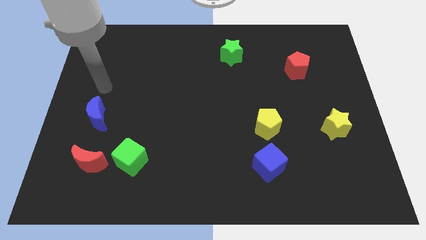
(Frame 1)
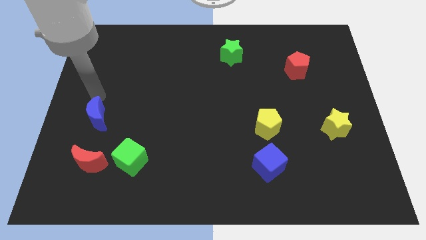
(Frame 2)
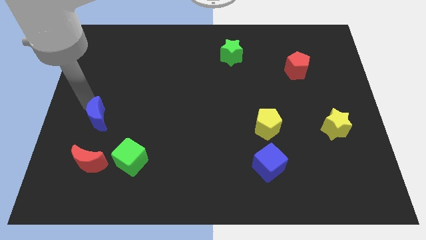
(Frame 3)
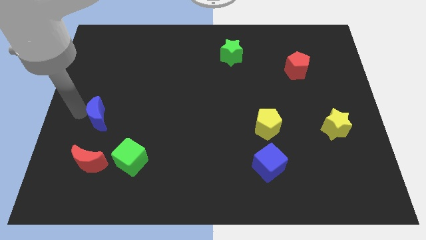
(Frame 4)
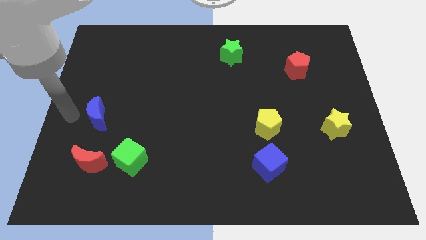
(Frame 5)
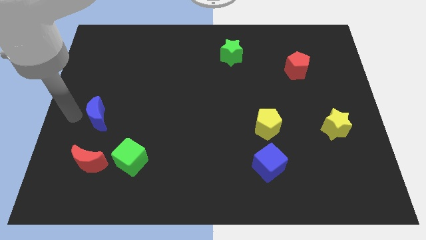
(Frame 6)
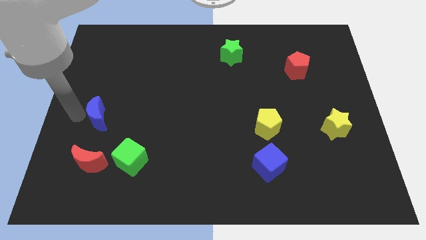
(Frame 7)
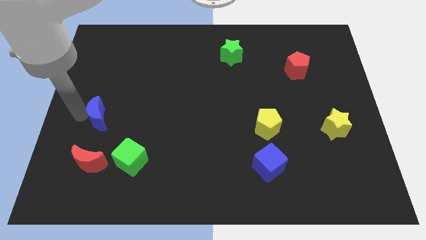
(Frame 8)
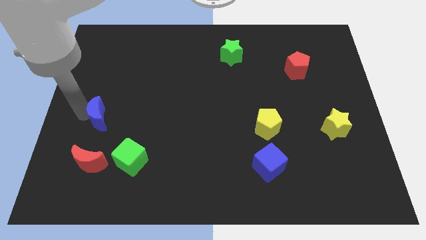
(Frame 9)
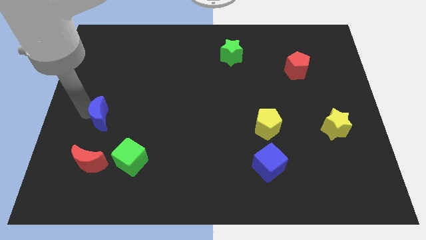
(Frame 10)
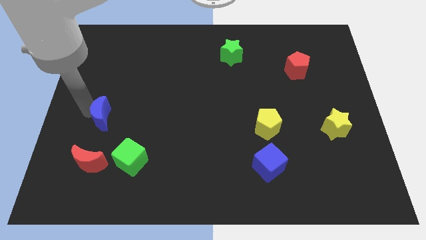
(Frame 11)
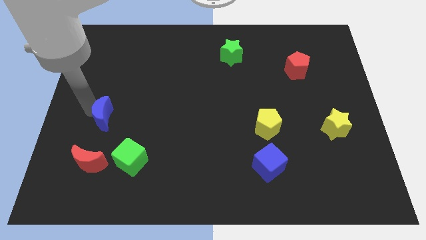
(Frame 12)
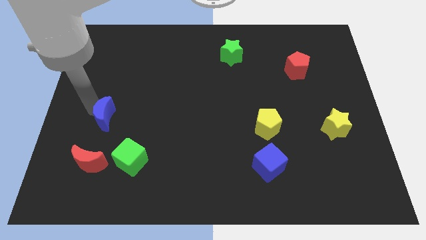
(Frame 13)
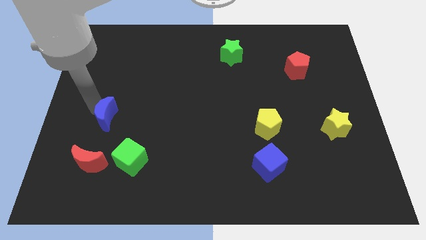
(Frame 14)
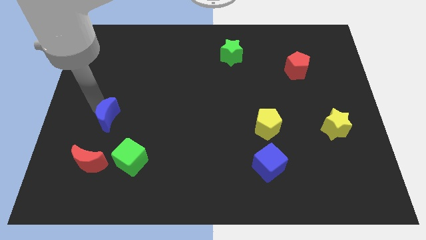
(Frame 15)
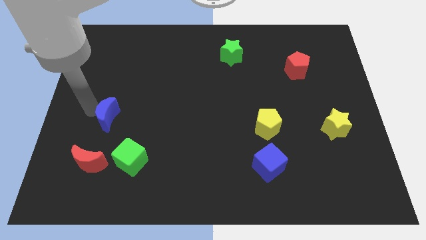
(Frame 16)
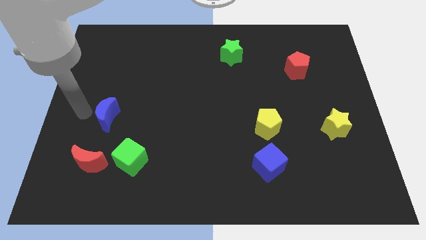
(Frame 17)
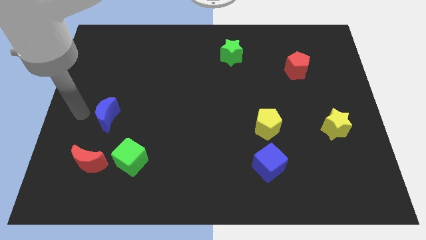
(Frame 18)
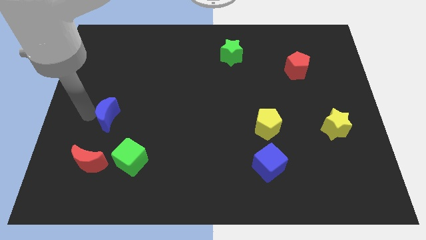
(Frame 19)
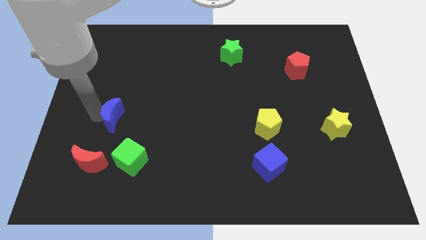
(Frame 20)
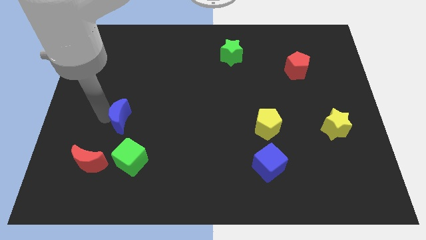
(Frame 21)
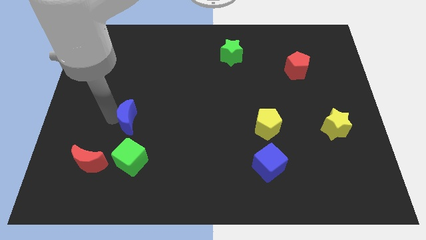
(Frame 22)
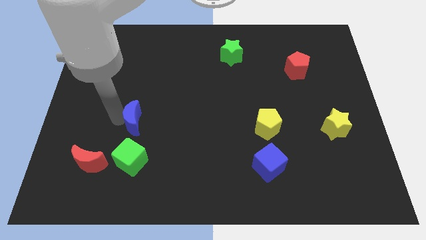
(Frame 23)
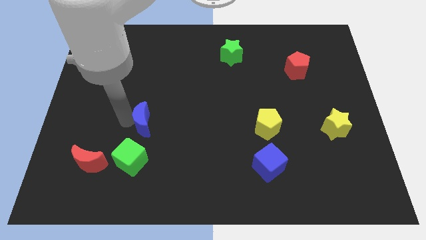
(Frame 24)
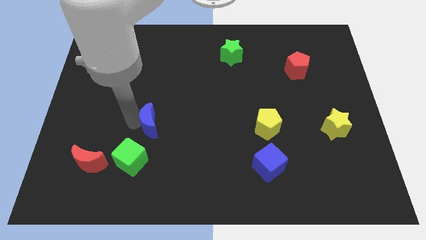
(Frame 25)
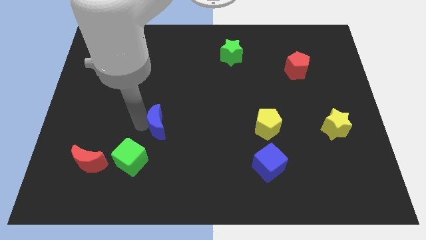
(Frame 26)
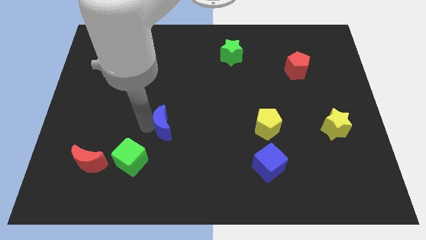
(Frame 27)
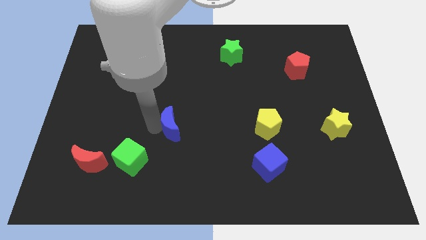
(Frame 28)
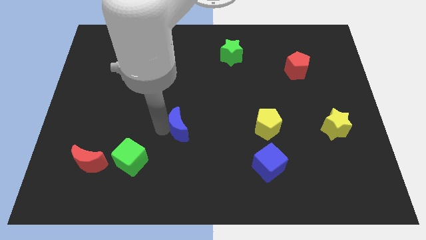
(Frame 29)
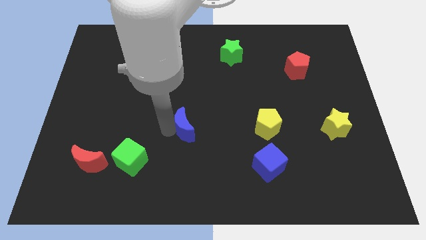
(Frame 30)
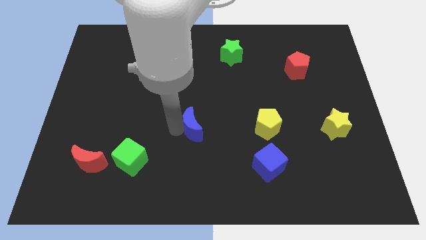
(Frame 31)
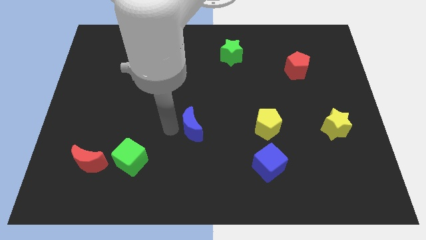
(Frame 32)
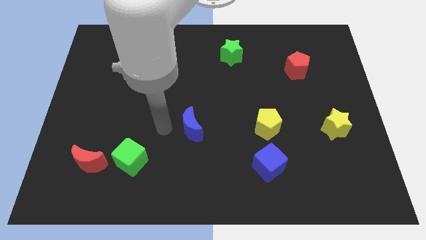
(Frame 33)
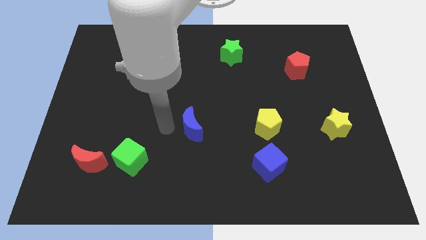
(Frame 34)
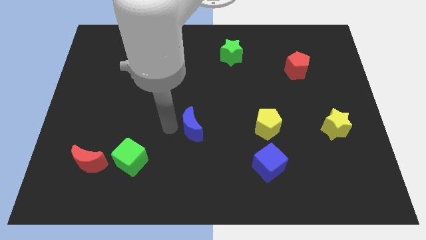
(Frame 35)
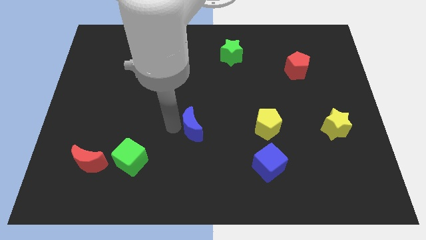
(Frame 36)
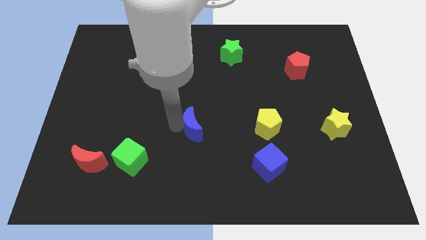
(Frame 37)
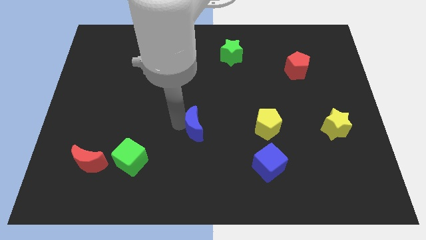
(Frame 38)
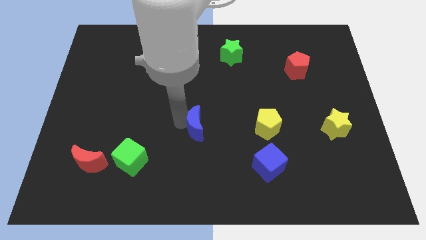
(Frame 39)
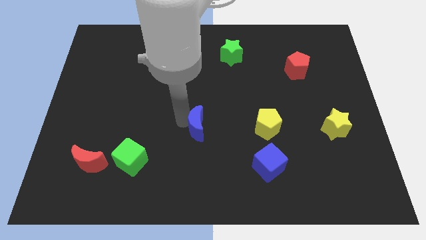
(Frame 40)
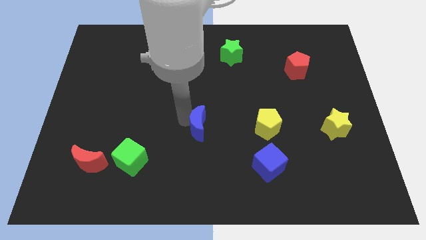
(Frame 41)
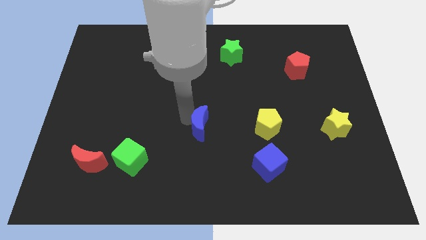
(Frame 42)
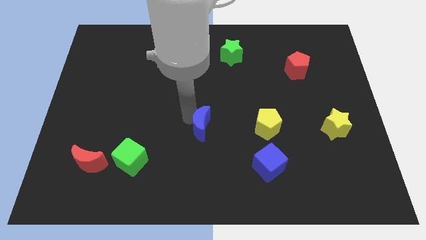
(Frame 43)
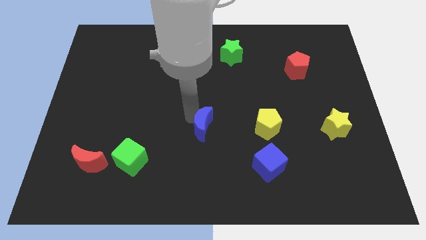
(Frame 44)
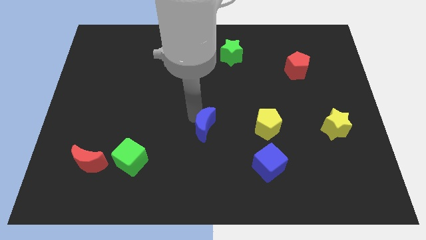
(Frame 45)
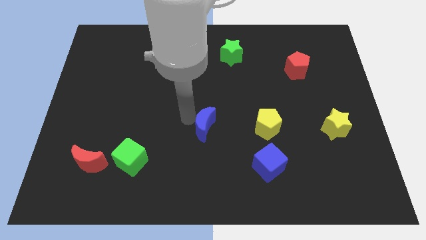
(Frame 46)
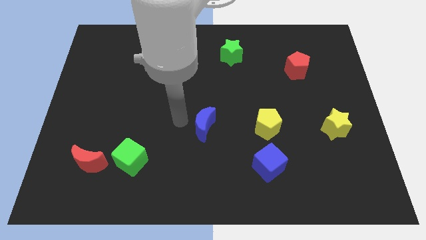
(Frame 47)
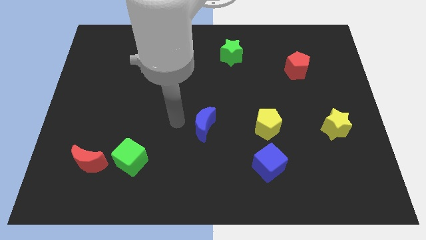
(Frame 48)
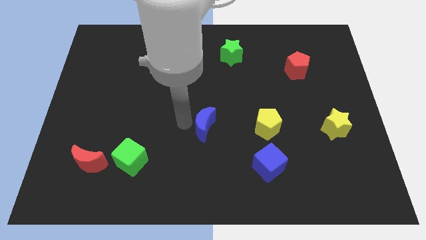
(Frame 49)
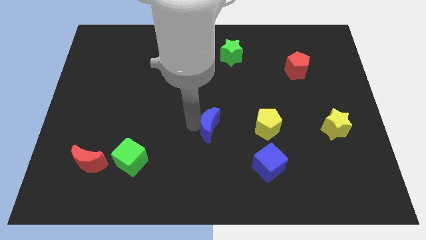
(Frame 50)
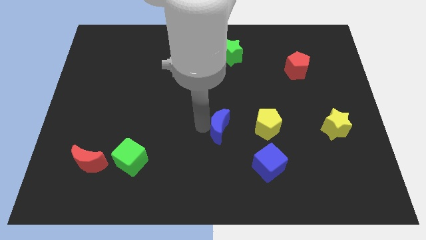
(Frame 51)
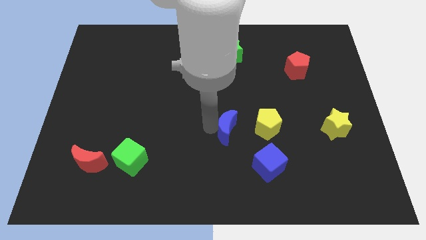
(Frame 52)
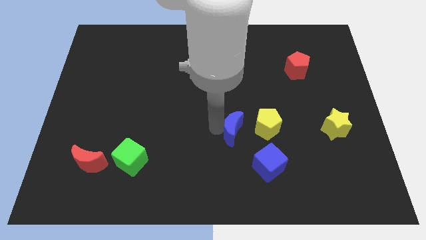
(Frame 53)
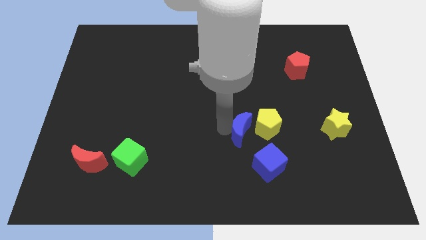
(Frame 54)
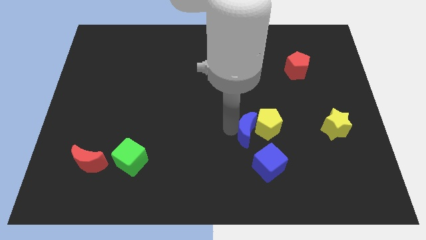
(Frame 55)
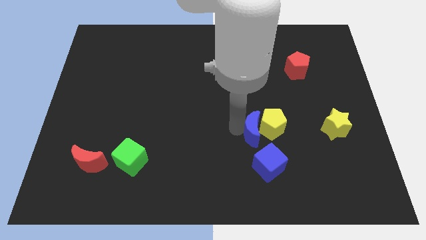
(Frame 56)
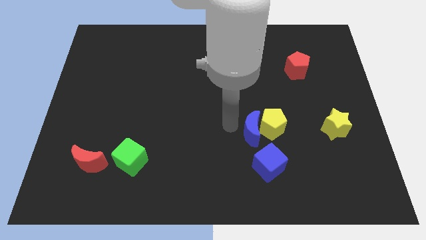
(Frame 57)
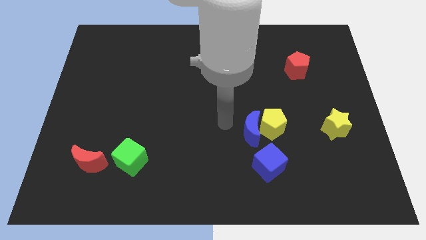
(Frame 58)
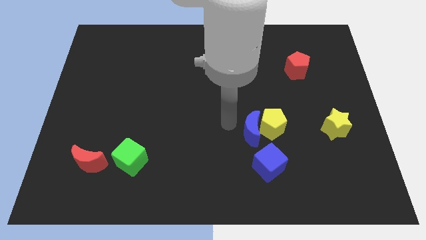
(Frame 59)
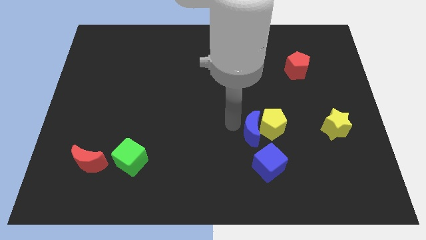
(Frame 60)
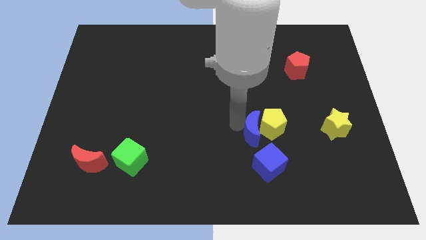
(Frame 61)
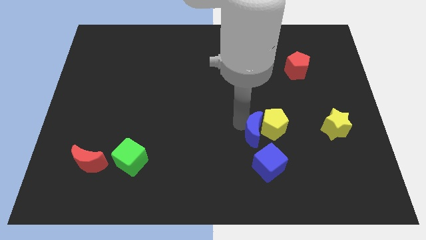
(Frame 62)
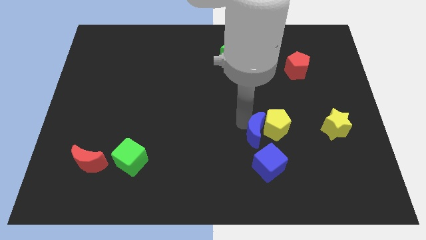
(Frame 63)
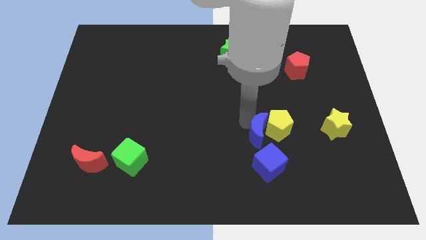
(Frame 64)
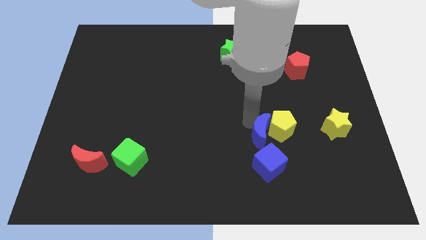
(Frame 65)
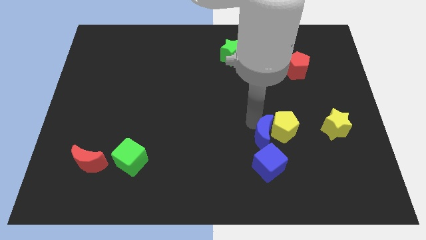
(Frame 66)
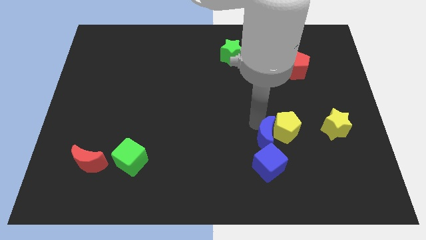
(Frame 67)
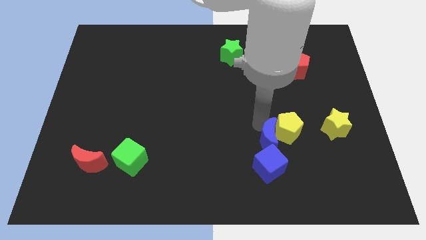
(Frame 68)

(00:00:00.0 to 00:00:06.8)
put the blue moon to the top right of the blue cube
